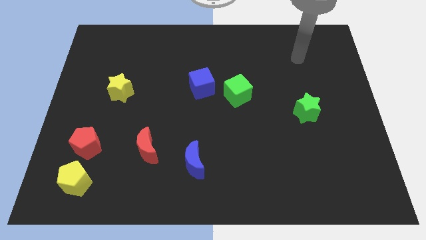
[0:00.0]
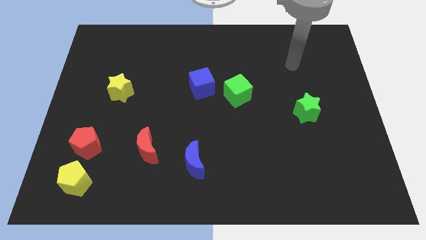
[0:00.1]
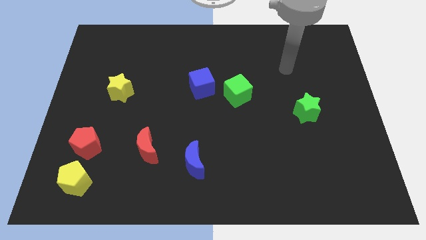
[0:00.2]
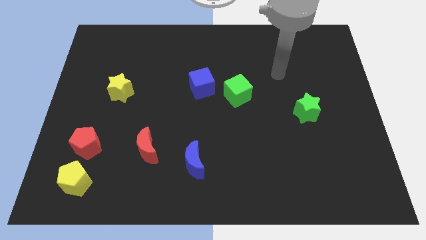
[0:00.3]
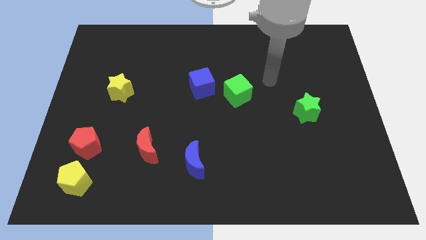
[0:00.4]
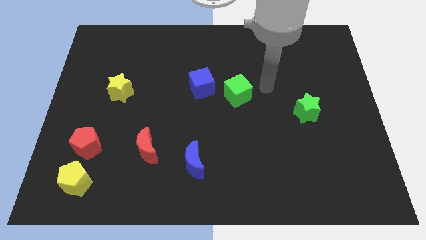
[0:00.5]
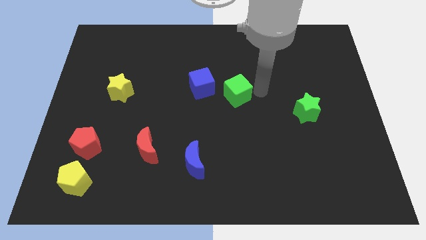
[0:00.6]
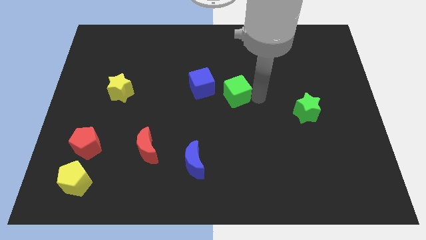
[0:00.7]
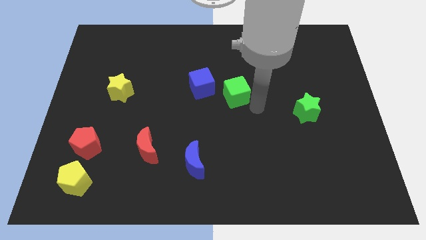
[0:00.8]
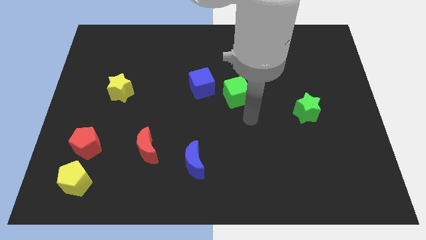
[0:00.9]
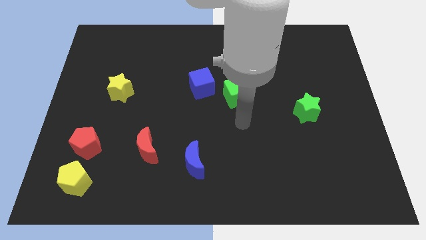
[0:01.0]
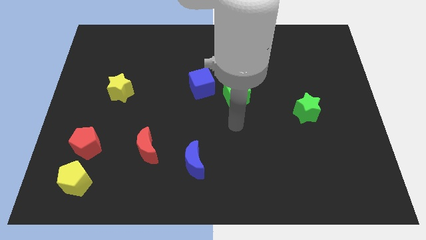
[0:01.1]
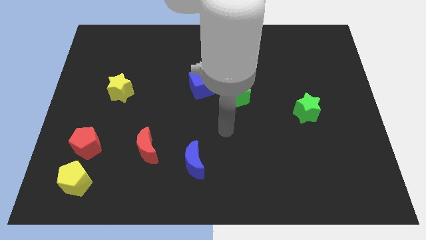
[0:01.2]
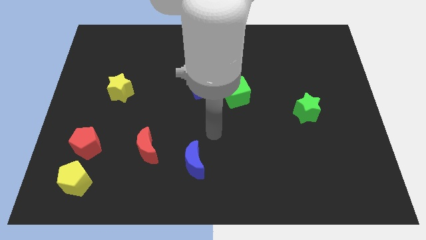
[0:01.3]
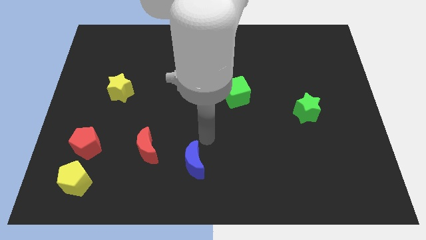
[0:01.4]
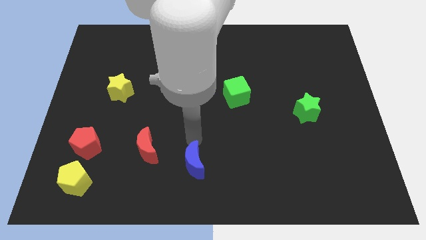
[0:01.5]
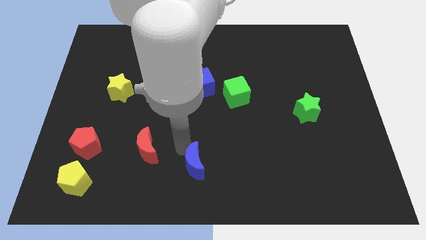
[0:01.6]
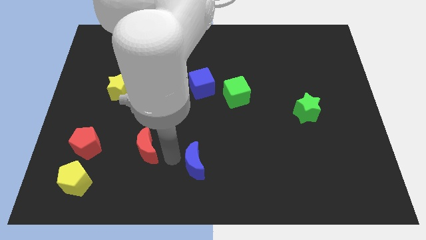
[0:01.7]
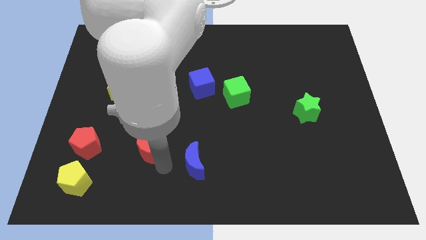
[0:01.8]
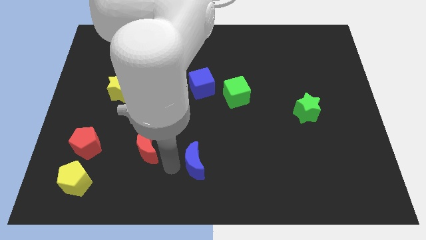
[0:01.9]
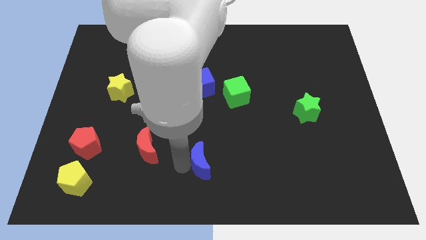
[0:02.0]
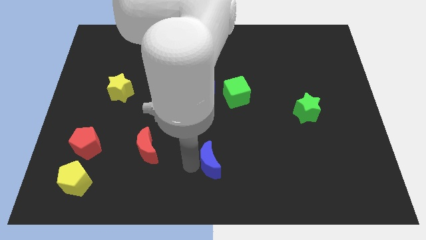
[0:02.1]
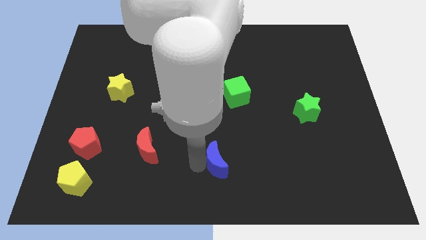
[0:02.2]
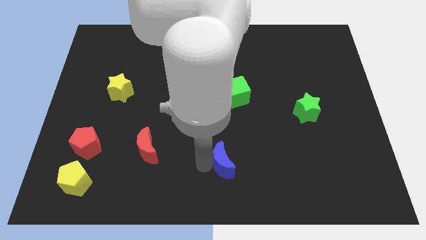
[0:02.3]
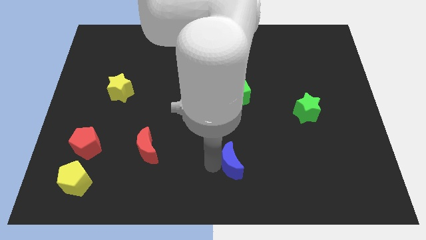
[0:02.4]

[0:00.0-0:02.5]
push the blue moon a bit to the right

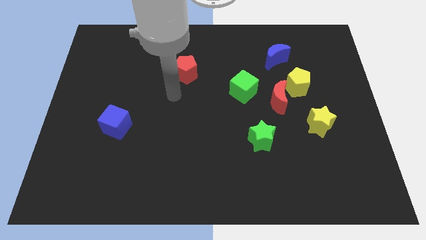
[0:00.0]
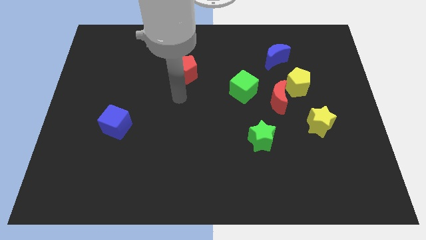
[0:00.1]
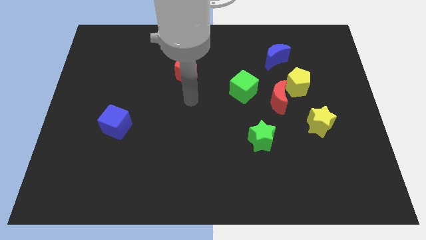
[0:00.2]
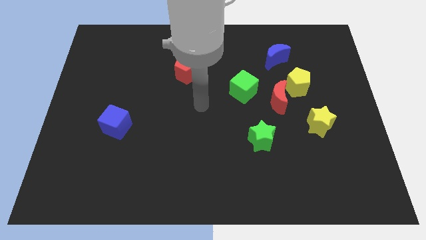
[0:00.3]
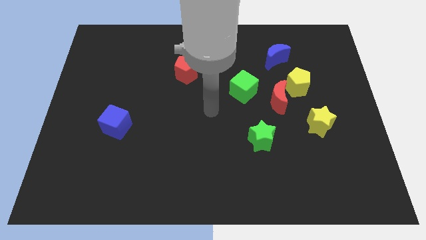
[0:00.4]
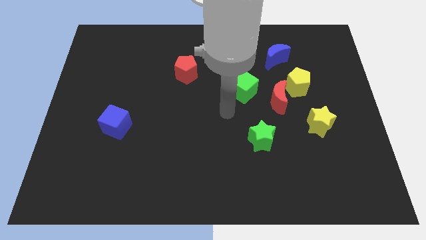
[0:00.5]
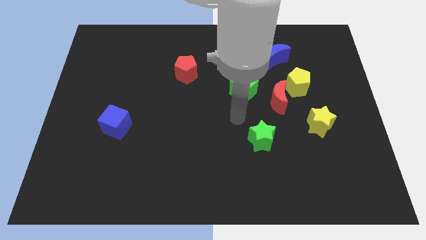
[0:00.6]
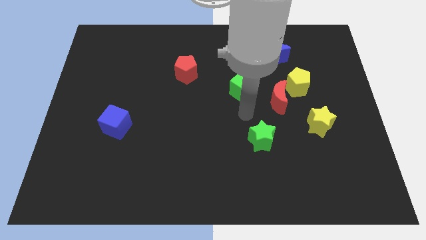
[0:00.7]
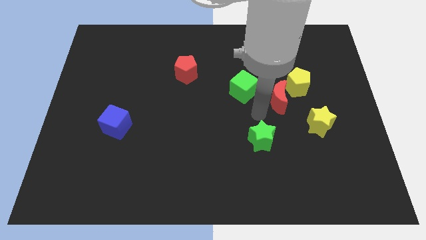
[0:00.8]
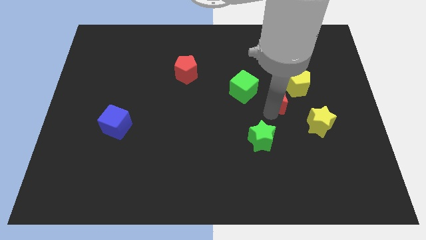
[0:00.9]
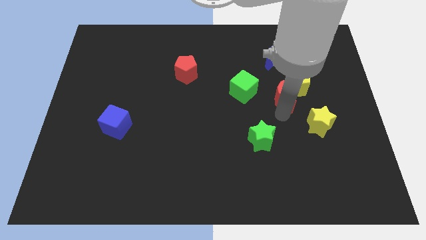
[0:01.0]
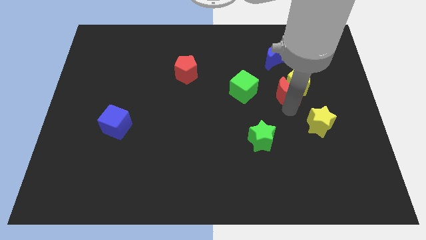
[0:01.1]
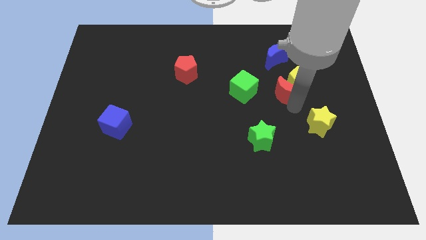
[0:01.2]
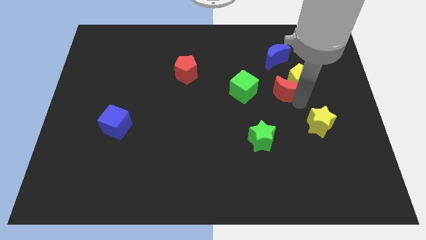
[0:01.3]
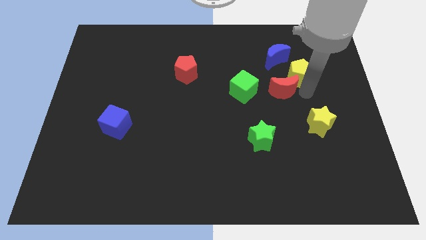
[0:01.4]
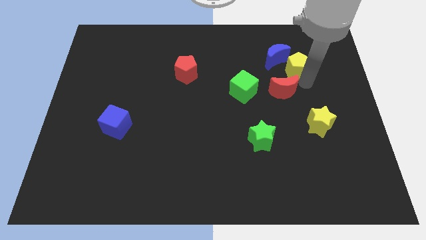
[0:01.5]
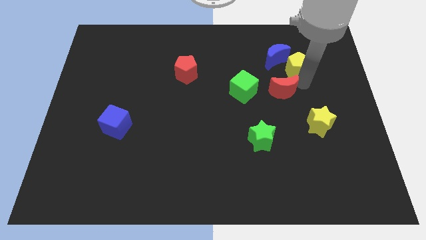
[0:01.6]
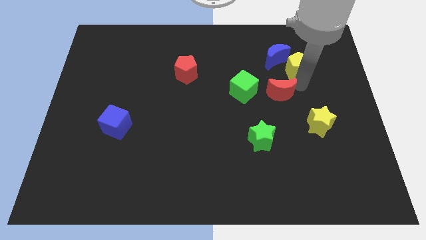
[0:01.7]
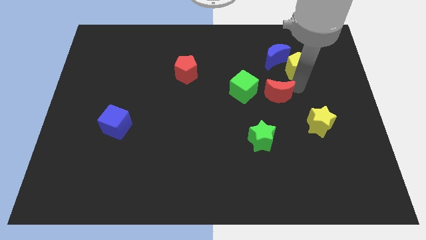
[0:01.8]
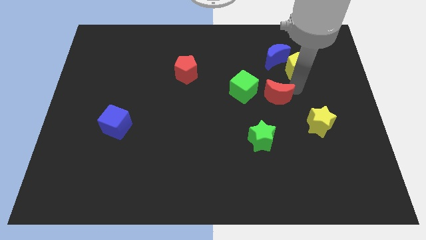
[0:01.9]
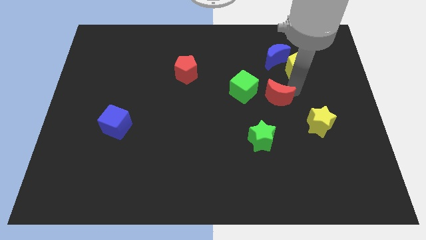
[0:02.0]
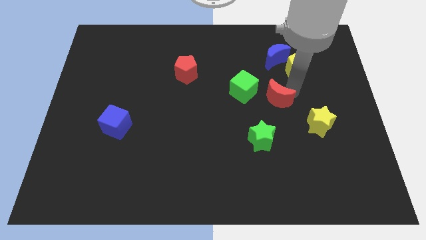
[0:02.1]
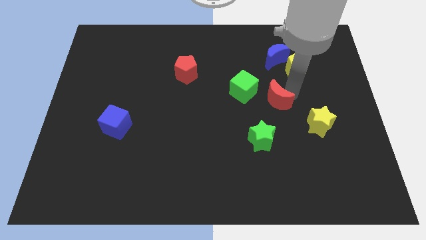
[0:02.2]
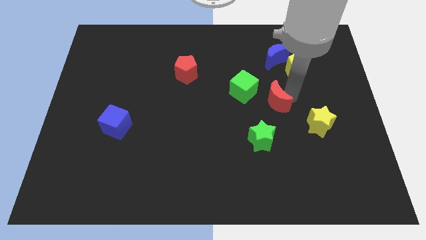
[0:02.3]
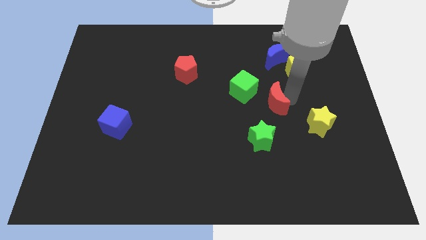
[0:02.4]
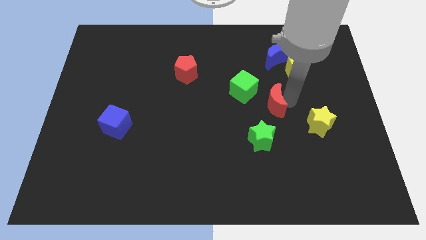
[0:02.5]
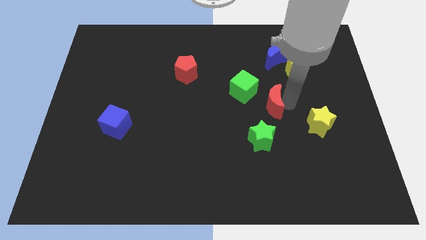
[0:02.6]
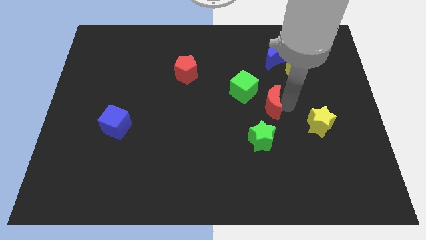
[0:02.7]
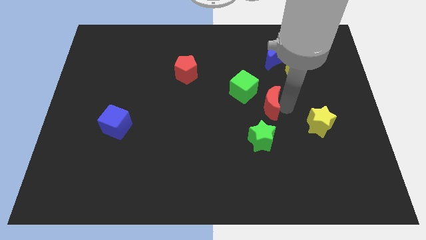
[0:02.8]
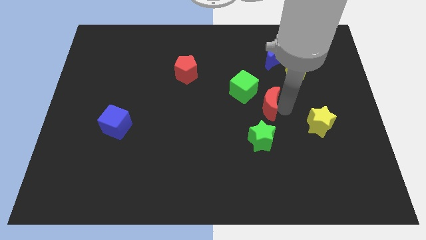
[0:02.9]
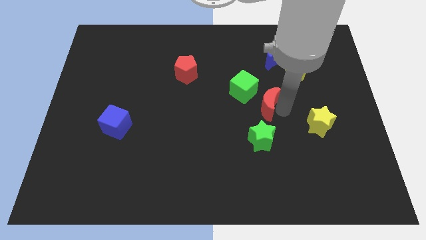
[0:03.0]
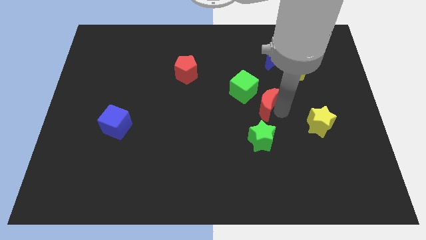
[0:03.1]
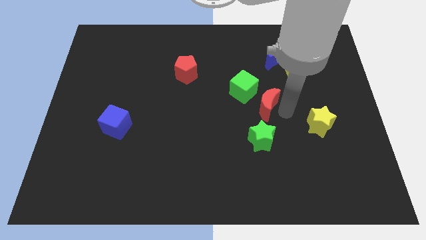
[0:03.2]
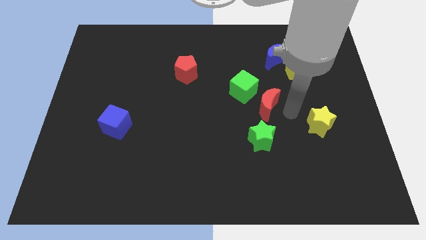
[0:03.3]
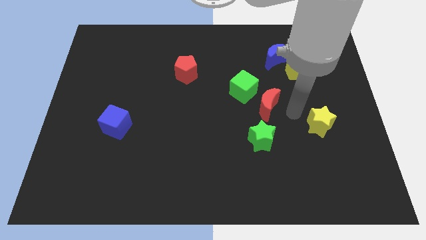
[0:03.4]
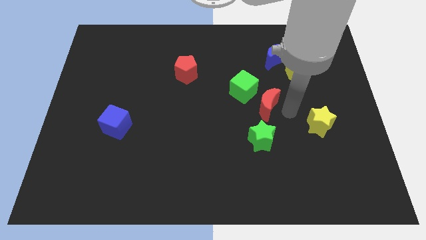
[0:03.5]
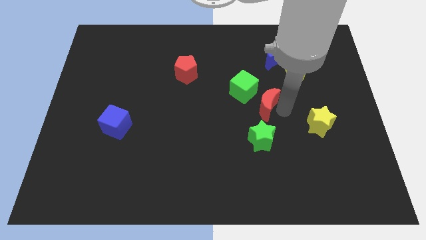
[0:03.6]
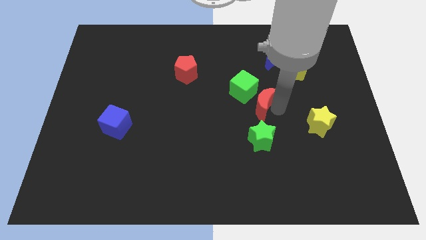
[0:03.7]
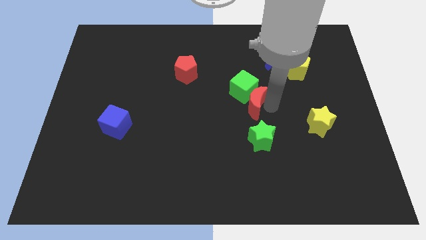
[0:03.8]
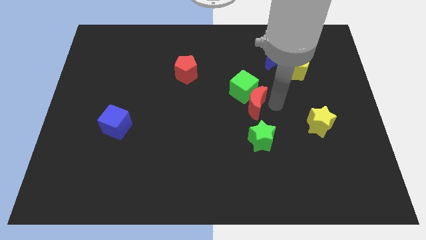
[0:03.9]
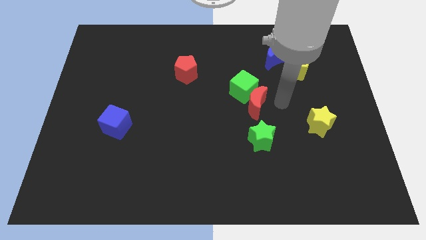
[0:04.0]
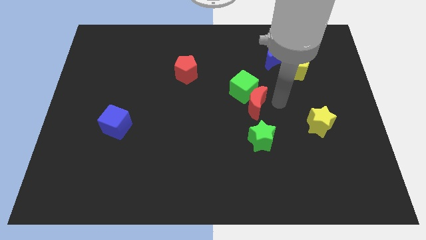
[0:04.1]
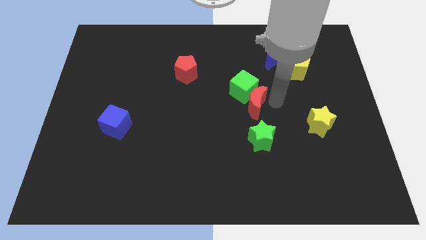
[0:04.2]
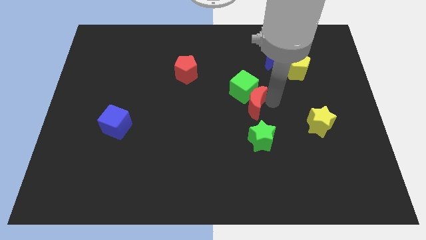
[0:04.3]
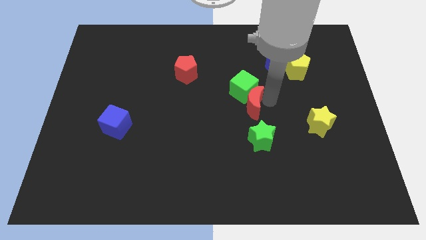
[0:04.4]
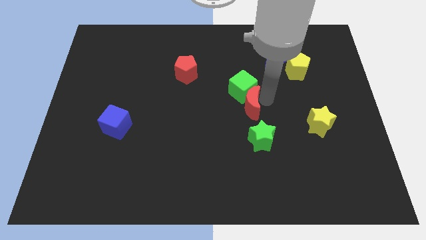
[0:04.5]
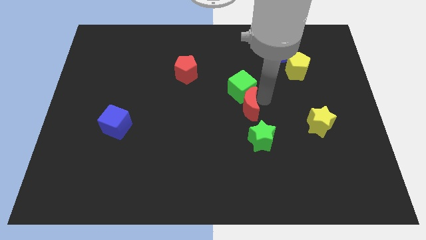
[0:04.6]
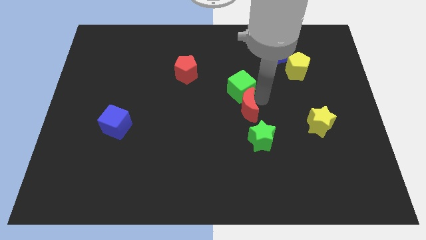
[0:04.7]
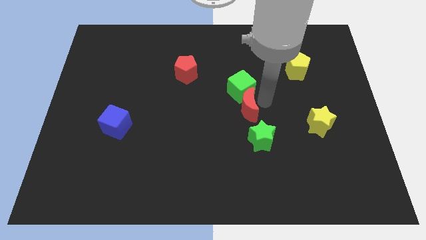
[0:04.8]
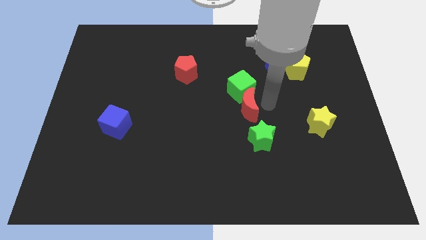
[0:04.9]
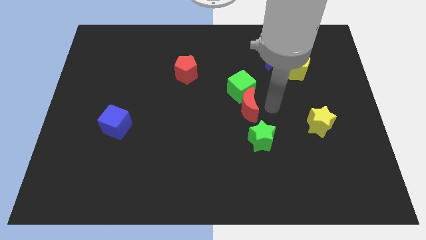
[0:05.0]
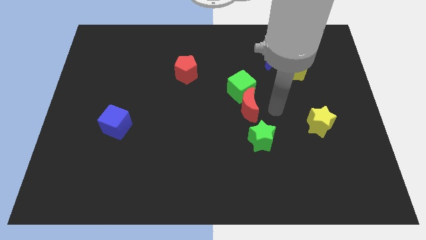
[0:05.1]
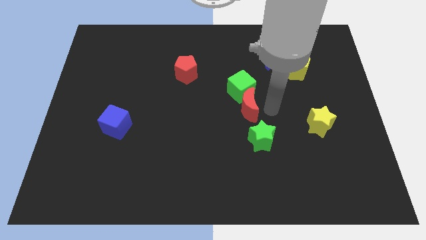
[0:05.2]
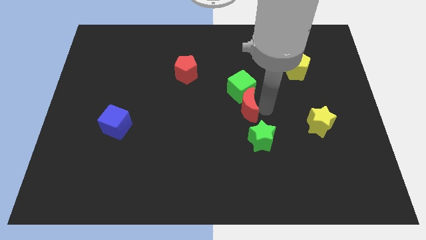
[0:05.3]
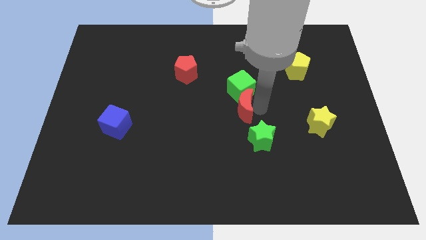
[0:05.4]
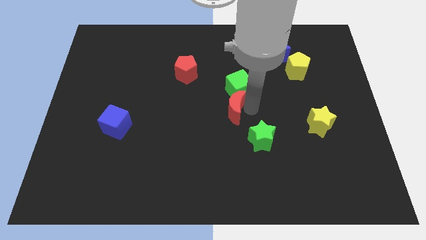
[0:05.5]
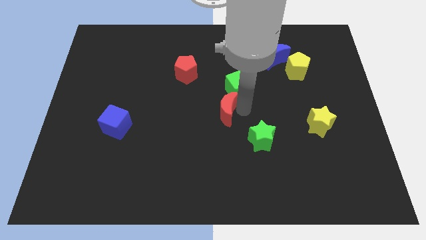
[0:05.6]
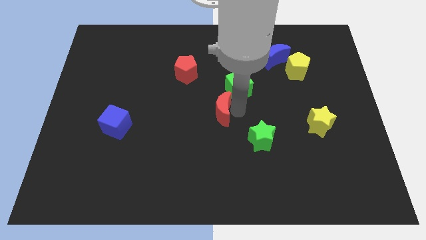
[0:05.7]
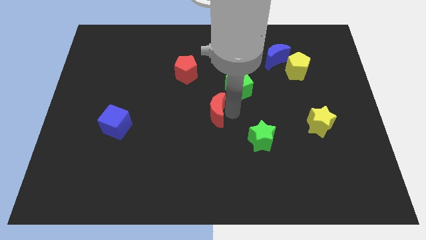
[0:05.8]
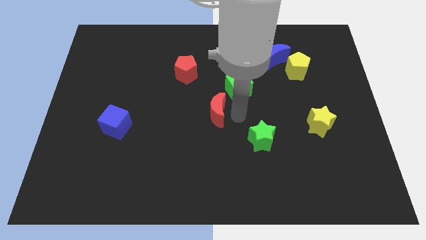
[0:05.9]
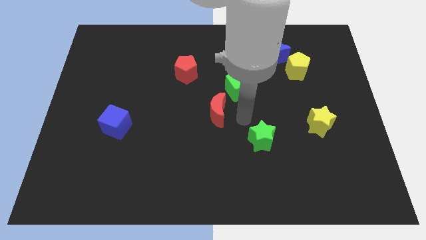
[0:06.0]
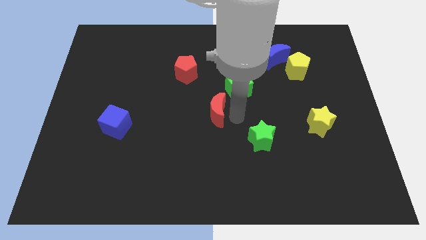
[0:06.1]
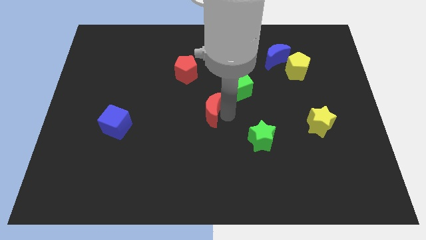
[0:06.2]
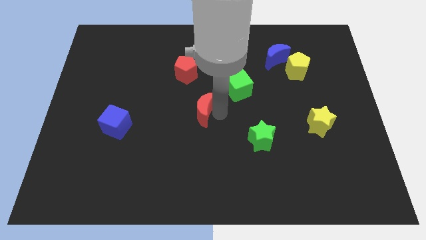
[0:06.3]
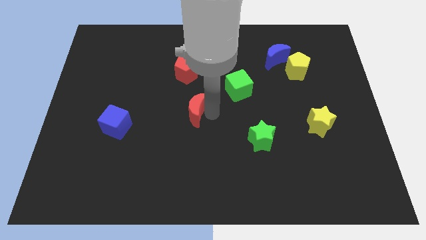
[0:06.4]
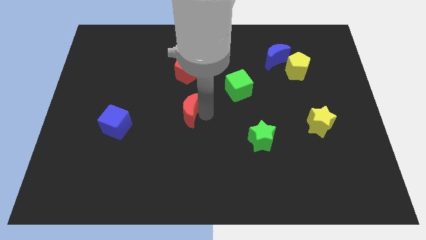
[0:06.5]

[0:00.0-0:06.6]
push the red moon to the left
